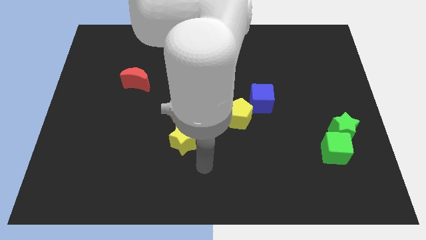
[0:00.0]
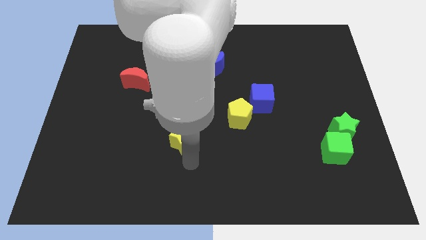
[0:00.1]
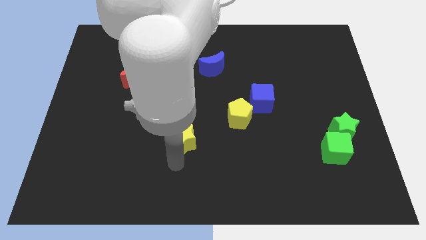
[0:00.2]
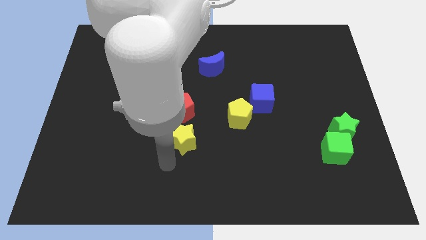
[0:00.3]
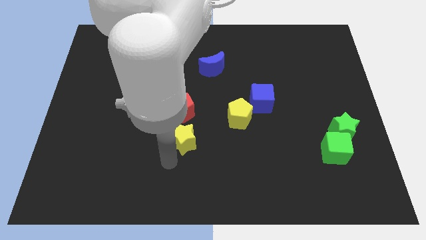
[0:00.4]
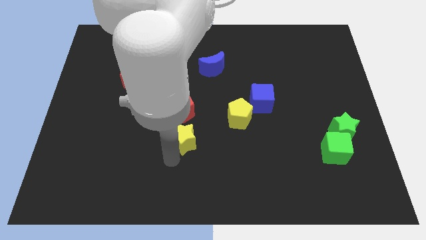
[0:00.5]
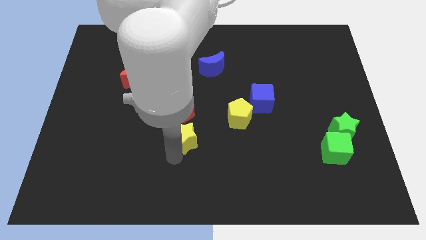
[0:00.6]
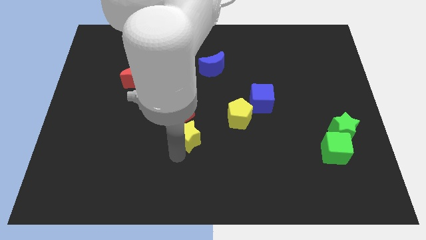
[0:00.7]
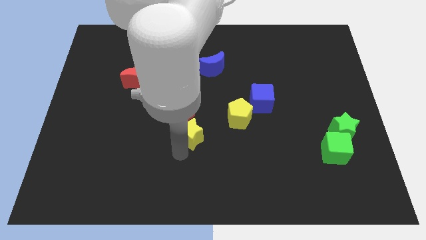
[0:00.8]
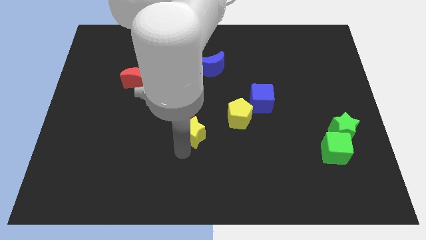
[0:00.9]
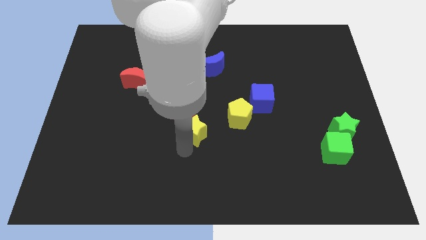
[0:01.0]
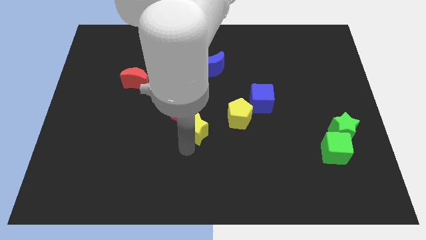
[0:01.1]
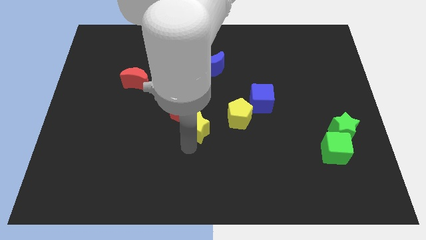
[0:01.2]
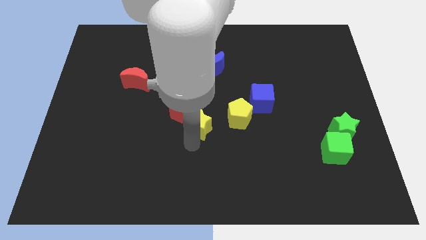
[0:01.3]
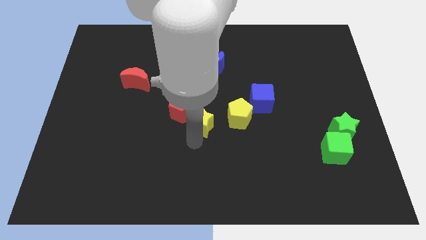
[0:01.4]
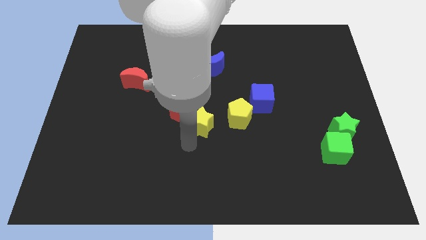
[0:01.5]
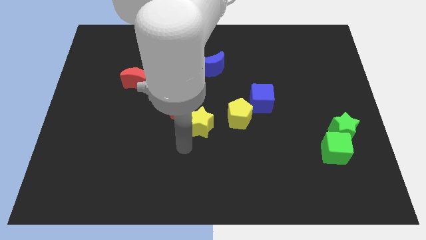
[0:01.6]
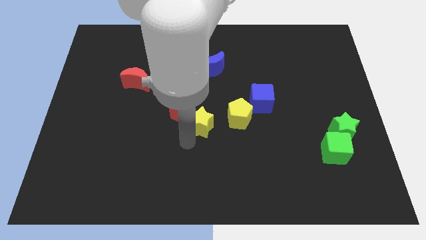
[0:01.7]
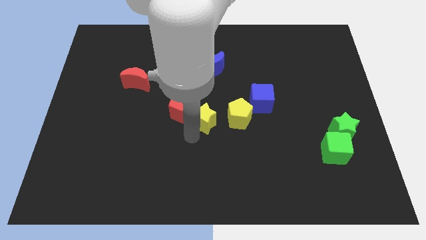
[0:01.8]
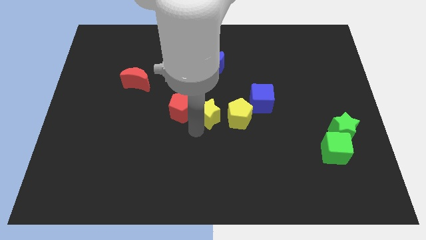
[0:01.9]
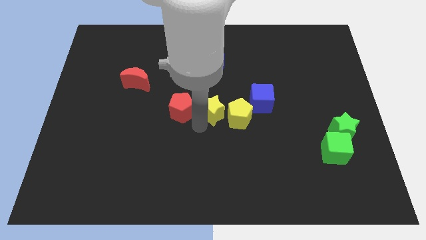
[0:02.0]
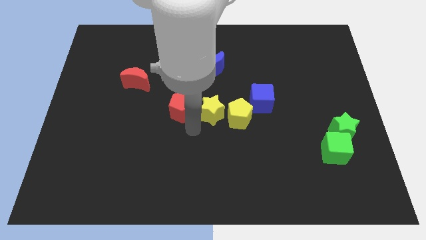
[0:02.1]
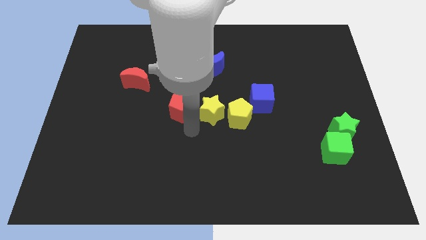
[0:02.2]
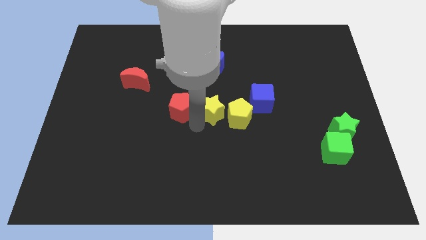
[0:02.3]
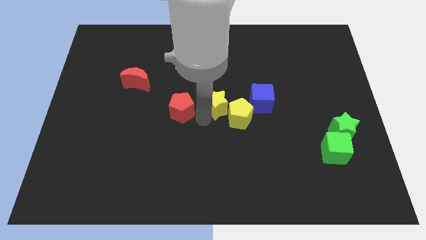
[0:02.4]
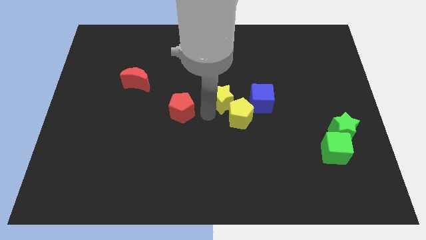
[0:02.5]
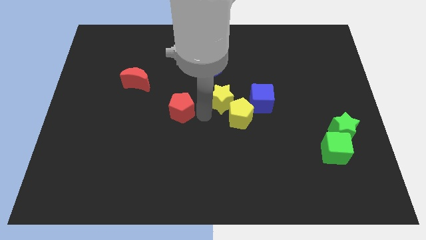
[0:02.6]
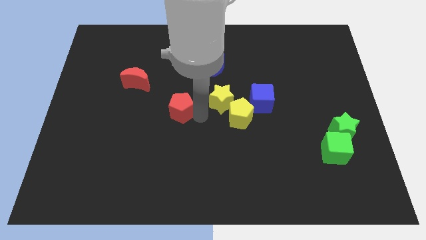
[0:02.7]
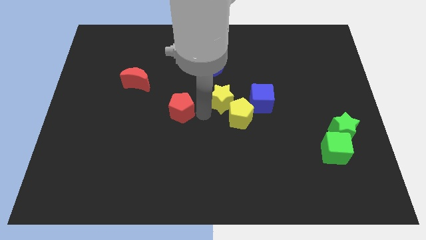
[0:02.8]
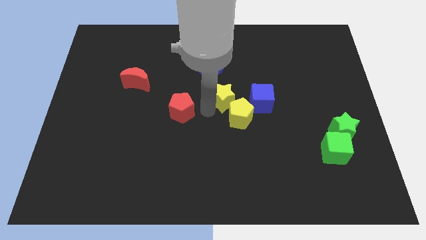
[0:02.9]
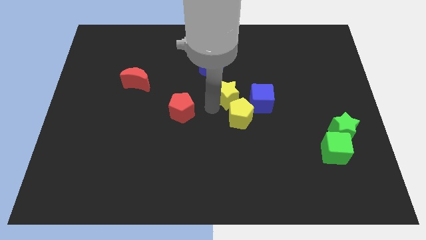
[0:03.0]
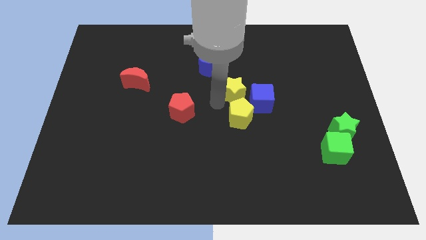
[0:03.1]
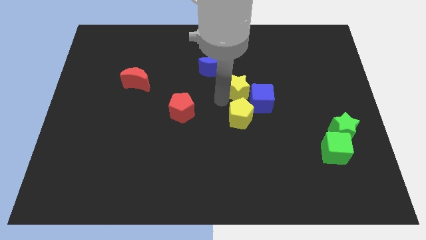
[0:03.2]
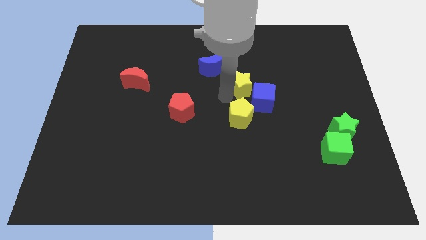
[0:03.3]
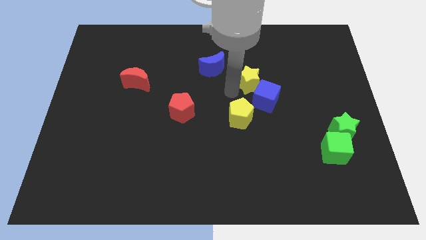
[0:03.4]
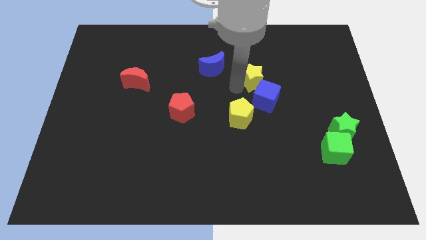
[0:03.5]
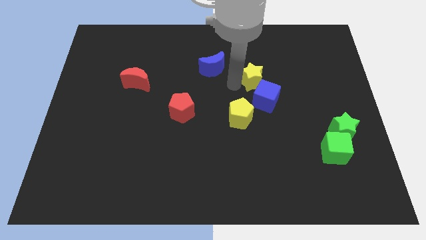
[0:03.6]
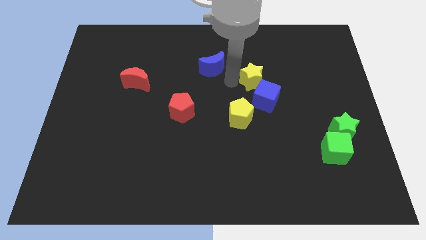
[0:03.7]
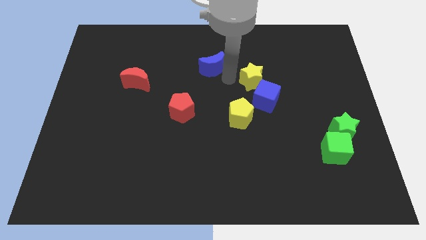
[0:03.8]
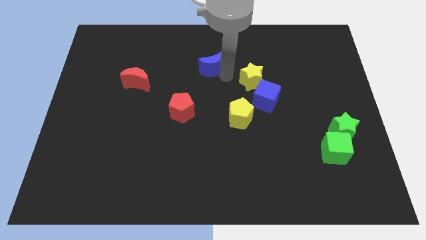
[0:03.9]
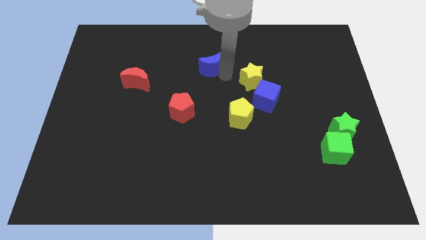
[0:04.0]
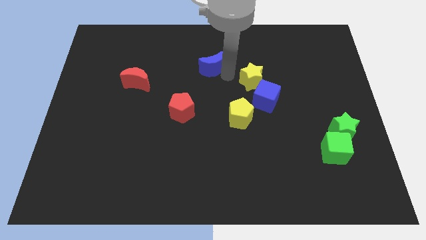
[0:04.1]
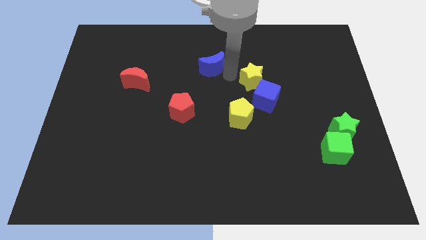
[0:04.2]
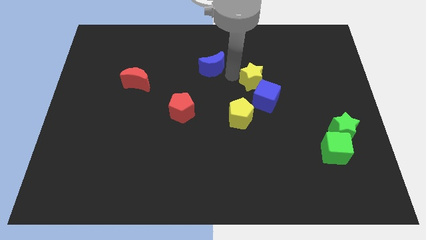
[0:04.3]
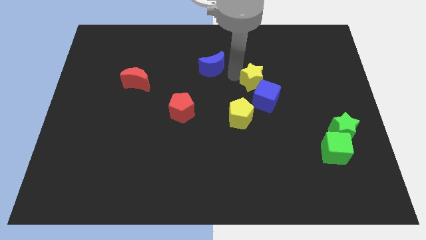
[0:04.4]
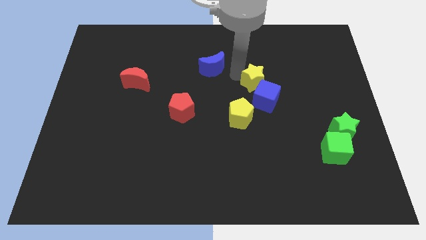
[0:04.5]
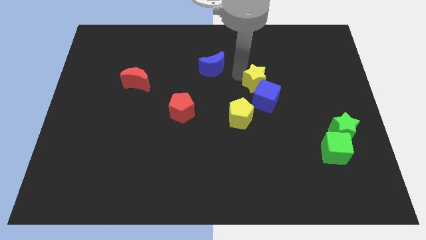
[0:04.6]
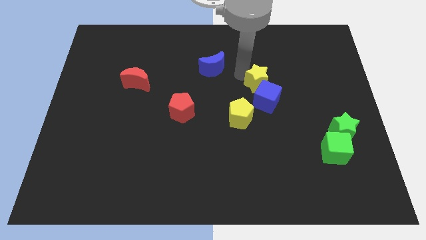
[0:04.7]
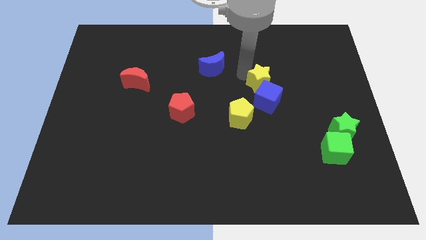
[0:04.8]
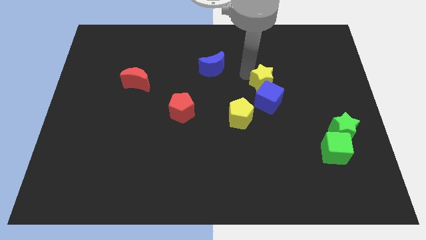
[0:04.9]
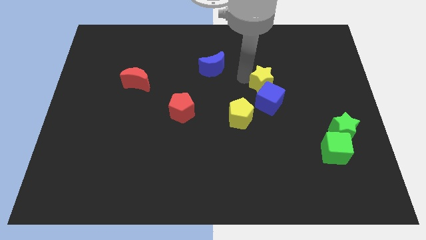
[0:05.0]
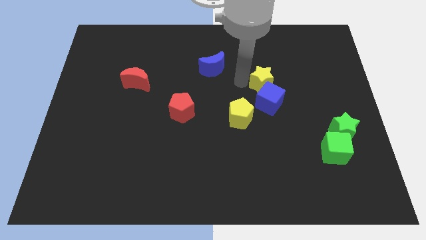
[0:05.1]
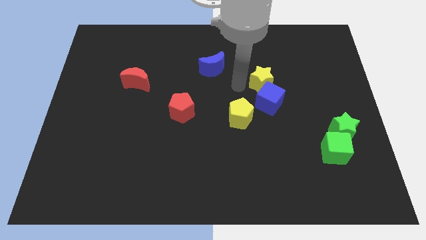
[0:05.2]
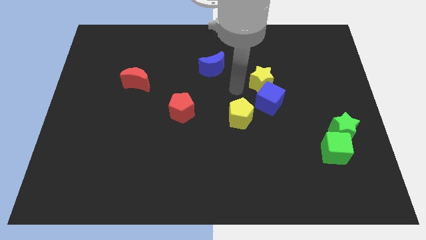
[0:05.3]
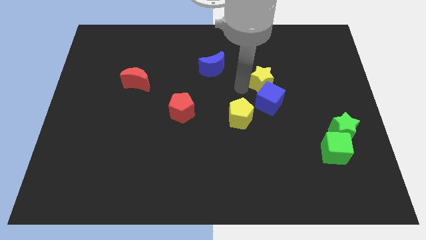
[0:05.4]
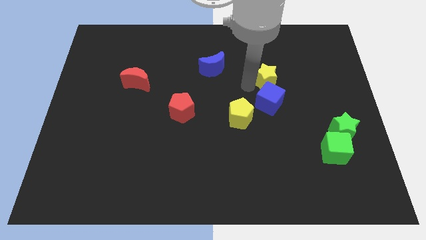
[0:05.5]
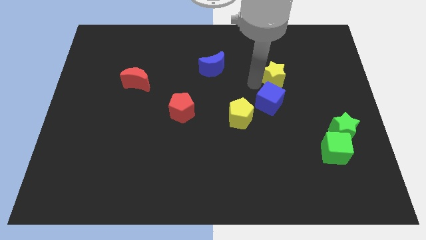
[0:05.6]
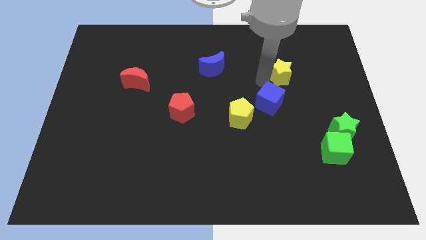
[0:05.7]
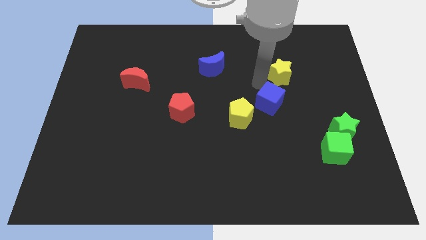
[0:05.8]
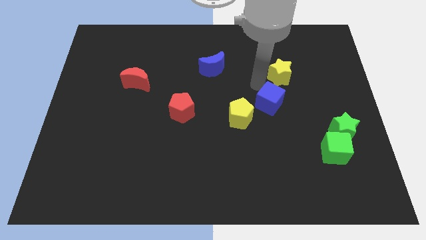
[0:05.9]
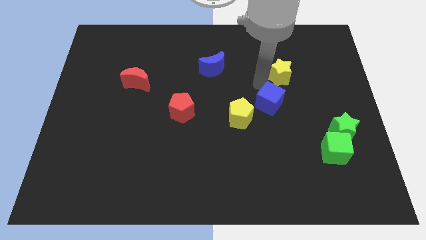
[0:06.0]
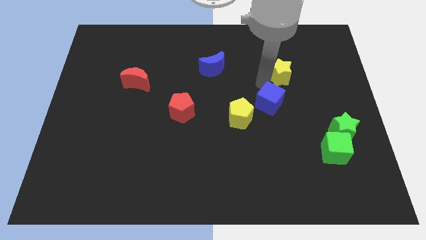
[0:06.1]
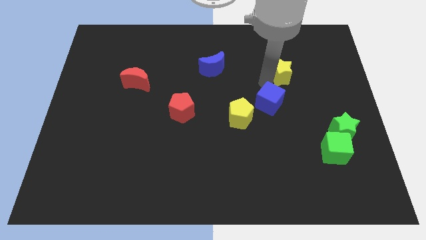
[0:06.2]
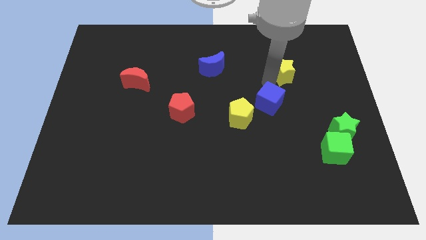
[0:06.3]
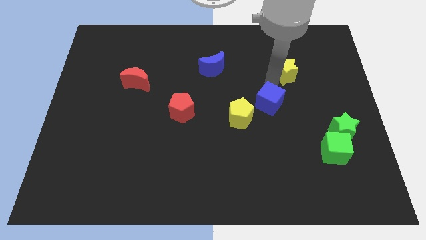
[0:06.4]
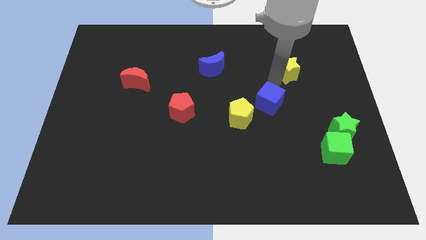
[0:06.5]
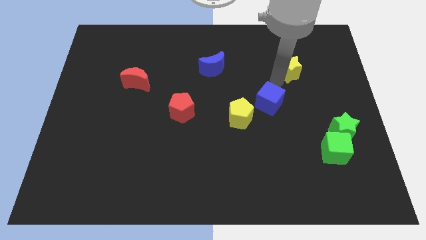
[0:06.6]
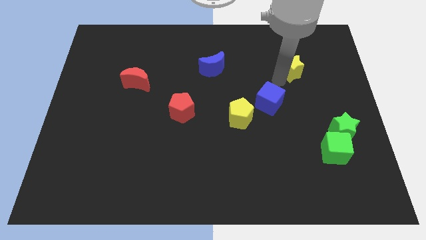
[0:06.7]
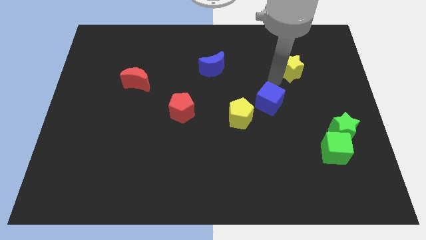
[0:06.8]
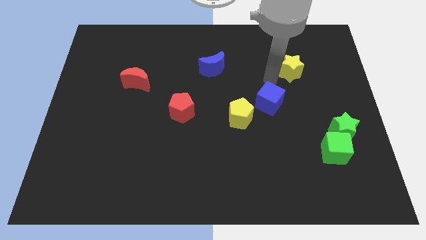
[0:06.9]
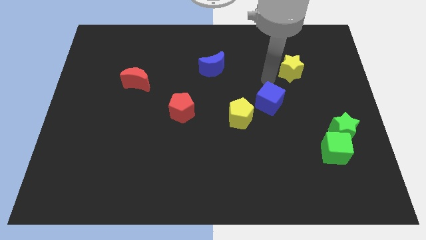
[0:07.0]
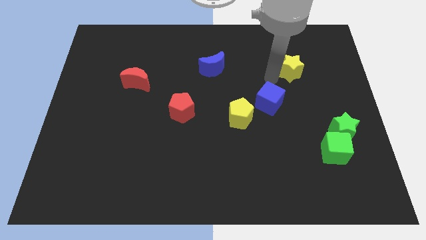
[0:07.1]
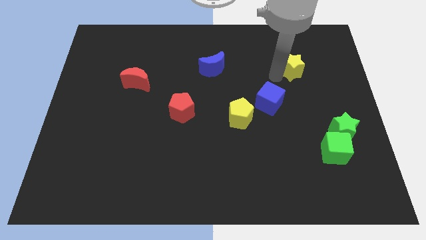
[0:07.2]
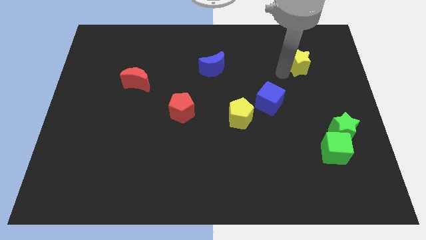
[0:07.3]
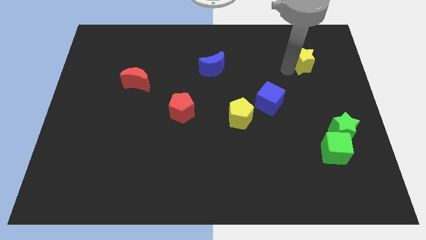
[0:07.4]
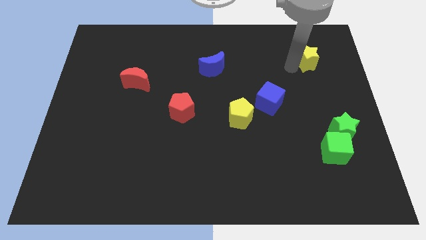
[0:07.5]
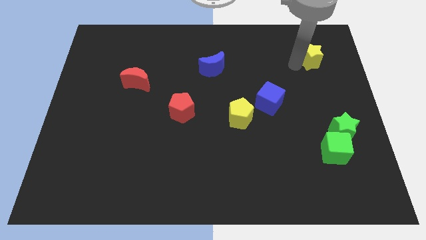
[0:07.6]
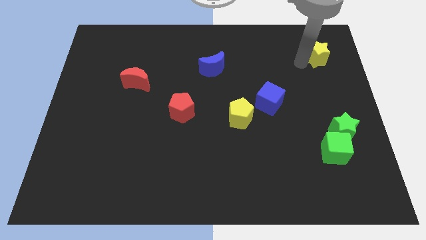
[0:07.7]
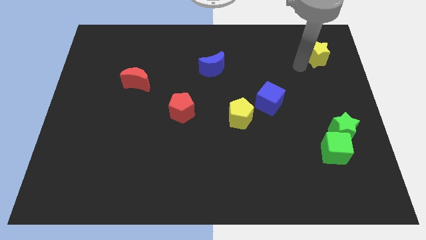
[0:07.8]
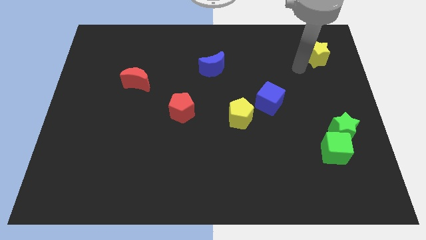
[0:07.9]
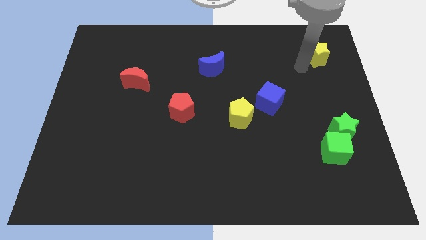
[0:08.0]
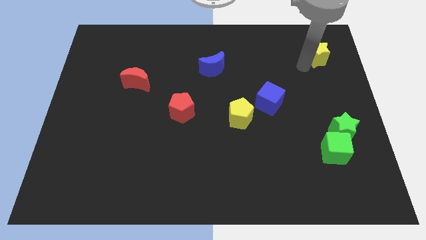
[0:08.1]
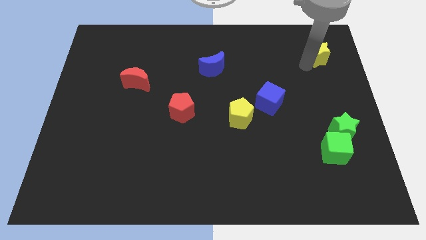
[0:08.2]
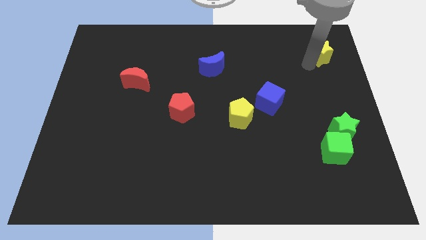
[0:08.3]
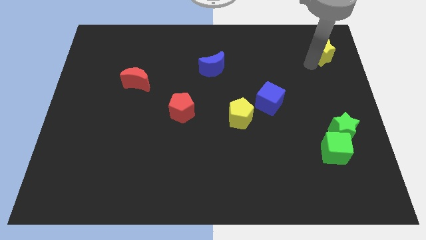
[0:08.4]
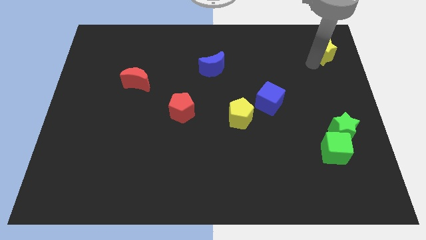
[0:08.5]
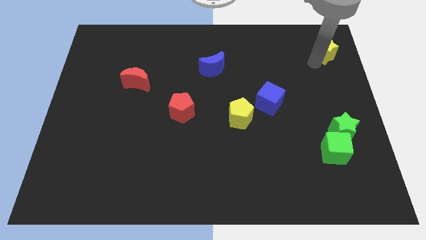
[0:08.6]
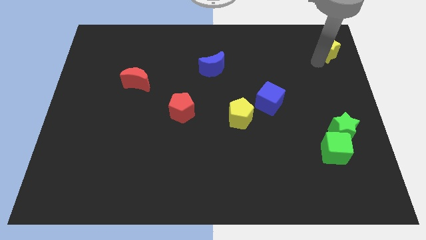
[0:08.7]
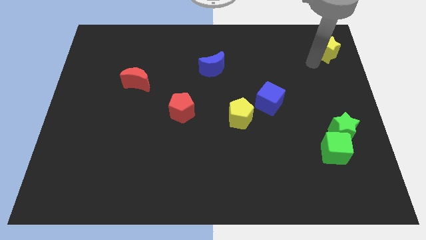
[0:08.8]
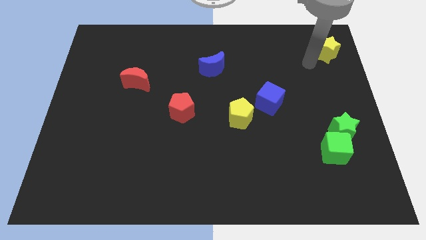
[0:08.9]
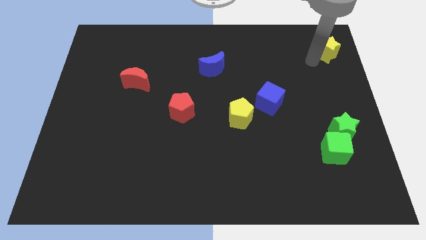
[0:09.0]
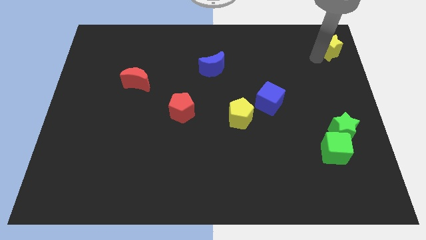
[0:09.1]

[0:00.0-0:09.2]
slide the yellow star to the top right corner
